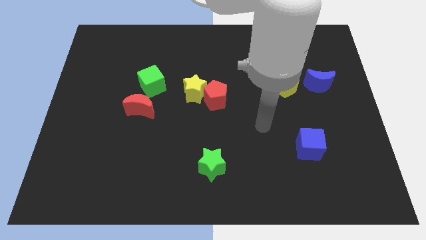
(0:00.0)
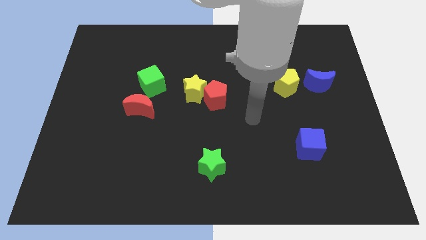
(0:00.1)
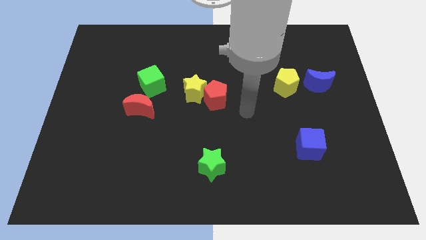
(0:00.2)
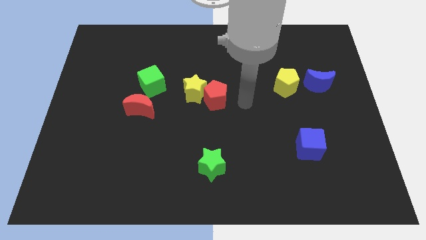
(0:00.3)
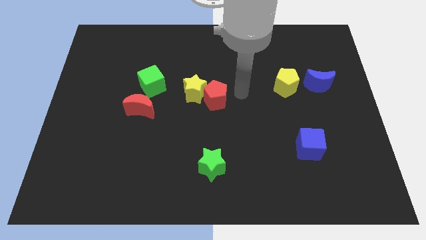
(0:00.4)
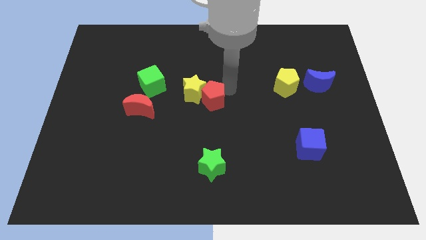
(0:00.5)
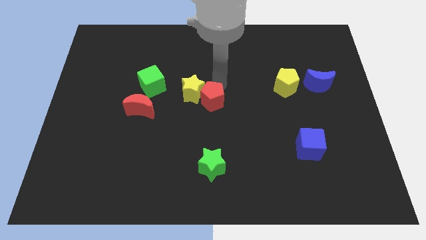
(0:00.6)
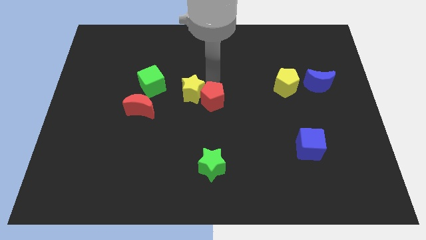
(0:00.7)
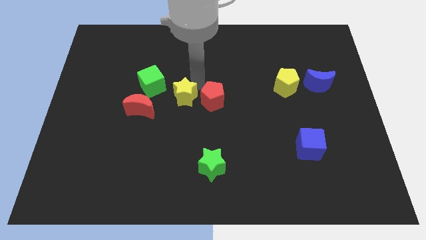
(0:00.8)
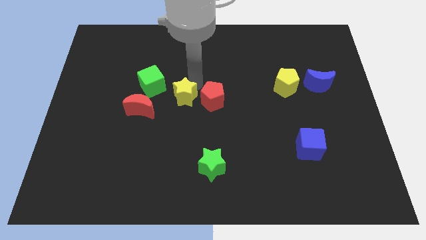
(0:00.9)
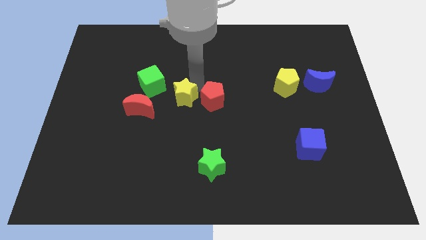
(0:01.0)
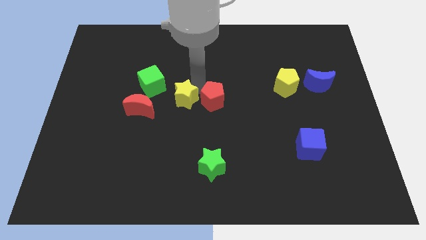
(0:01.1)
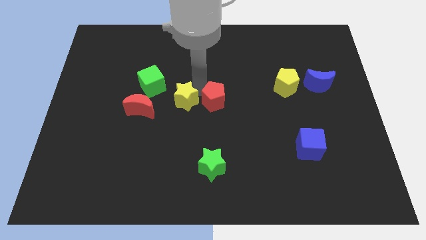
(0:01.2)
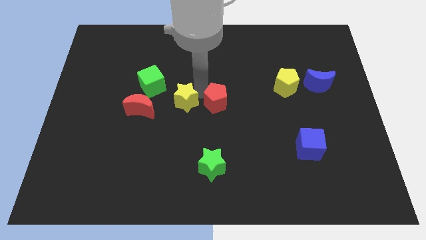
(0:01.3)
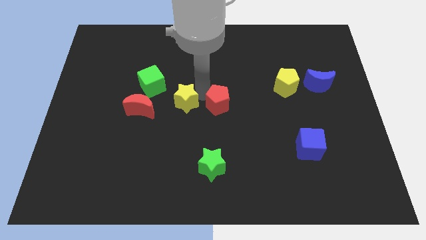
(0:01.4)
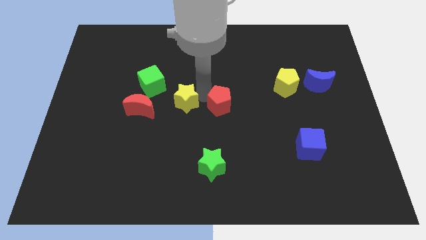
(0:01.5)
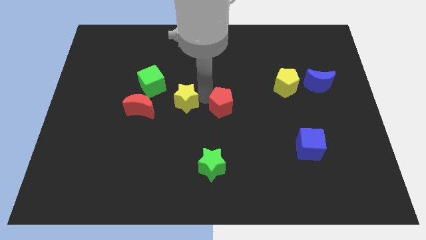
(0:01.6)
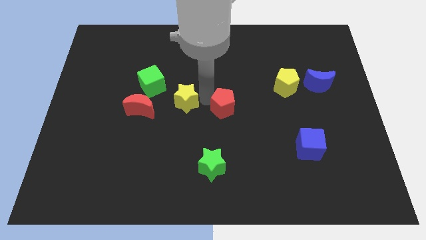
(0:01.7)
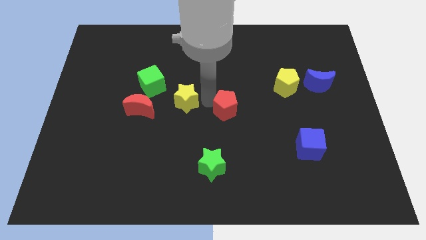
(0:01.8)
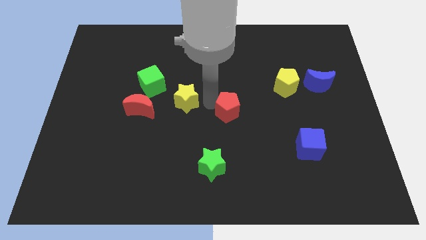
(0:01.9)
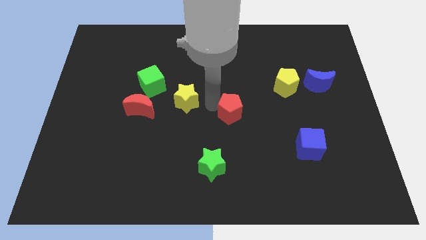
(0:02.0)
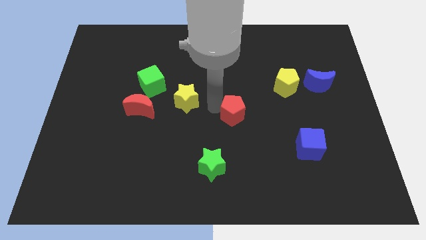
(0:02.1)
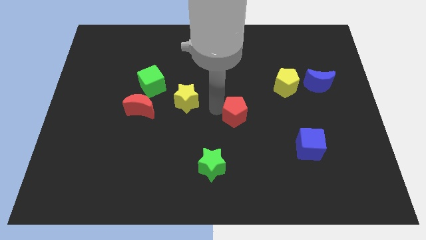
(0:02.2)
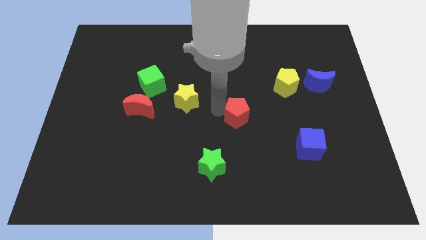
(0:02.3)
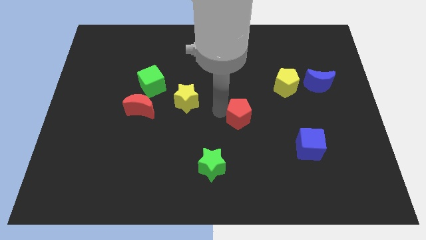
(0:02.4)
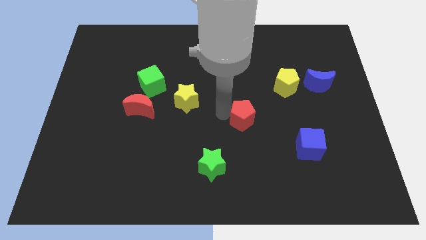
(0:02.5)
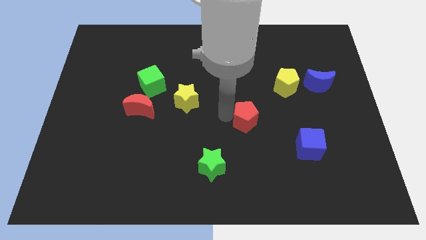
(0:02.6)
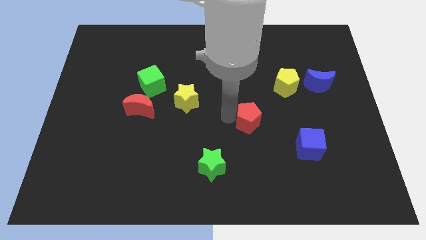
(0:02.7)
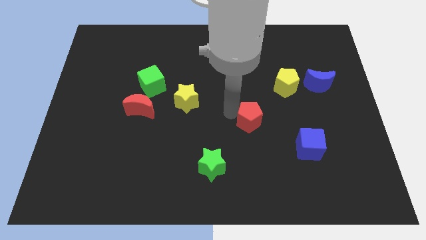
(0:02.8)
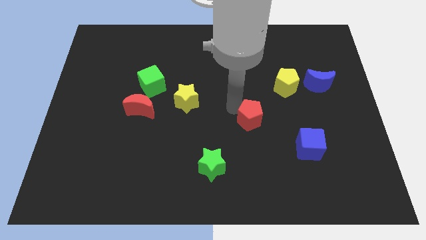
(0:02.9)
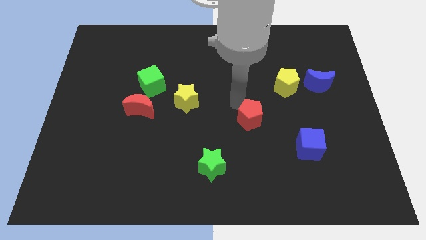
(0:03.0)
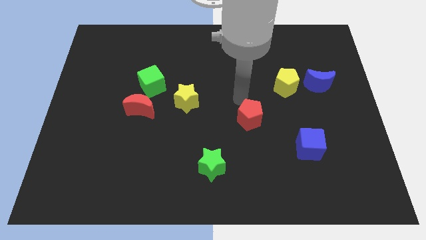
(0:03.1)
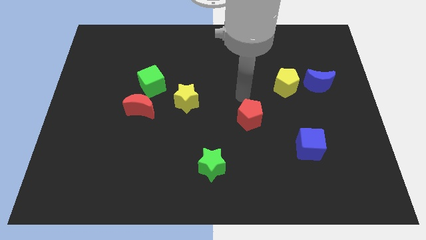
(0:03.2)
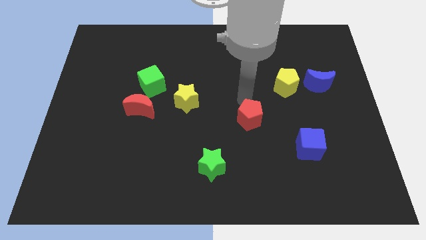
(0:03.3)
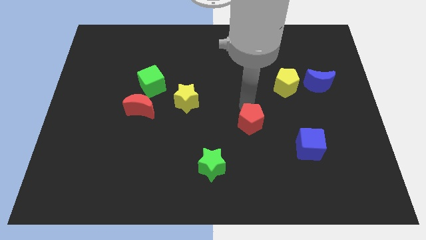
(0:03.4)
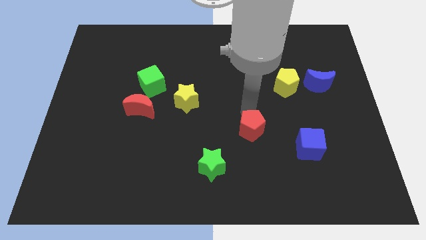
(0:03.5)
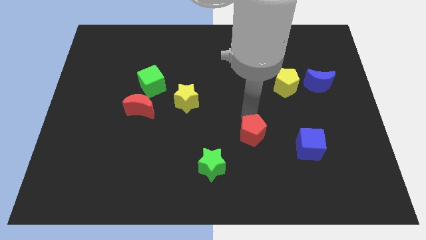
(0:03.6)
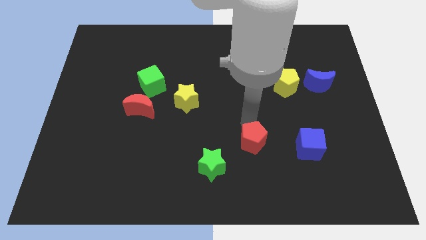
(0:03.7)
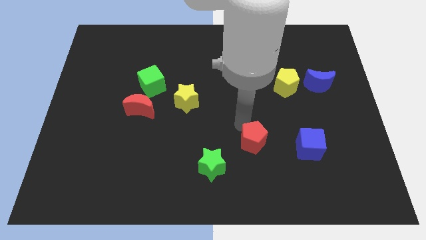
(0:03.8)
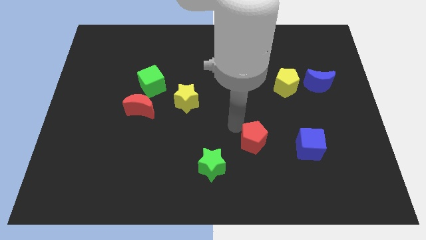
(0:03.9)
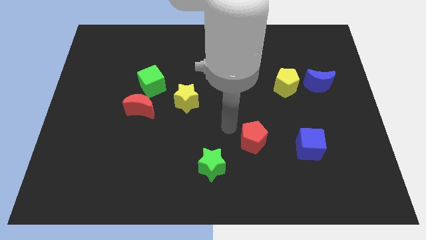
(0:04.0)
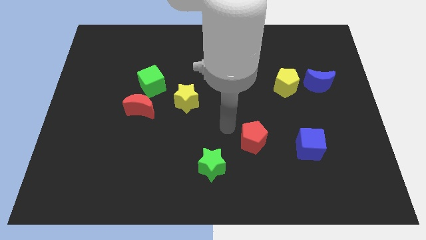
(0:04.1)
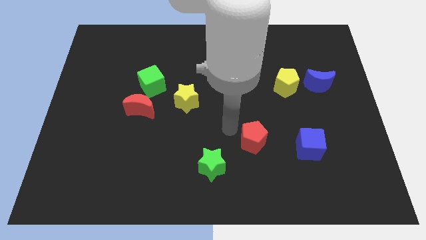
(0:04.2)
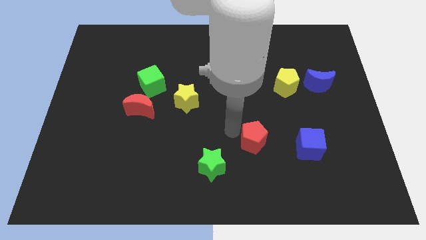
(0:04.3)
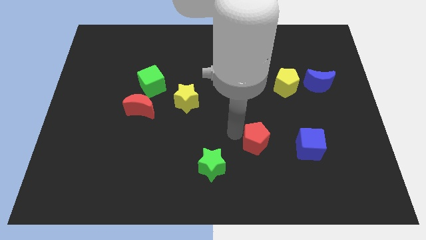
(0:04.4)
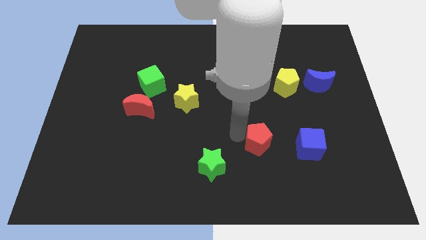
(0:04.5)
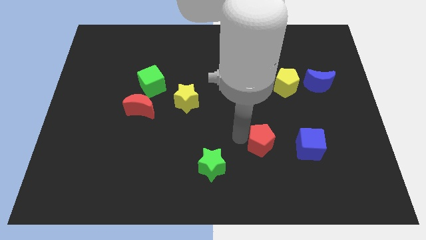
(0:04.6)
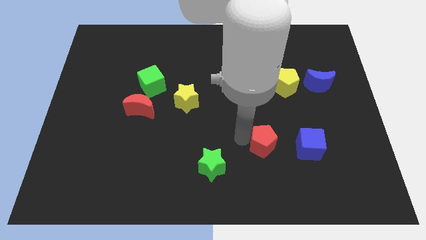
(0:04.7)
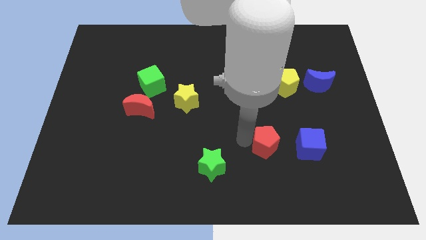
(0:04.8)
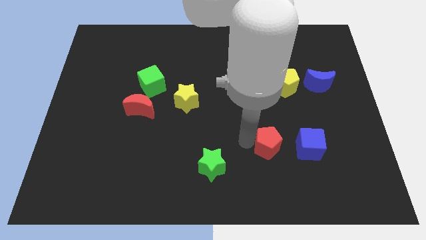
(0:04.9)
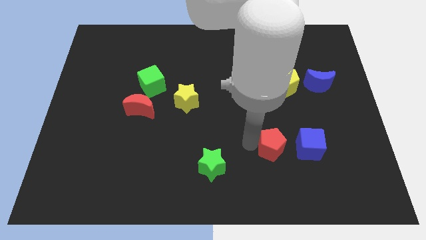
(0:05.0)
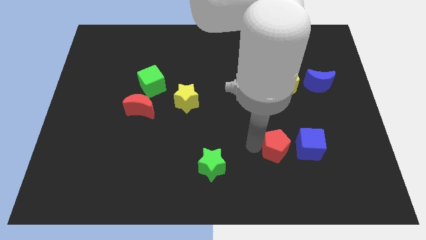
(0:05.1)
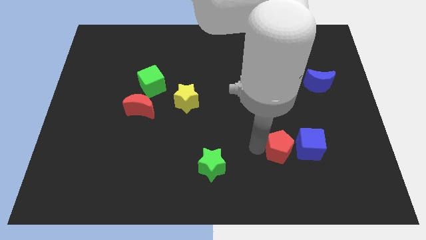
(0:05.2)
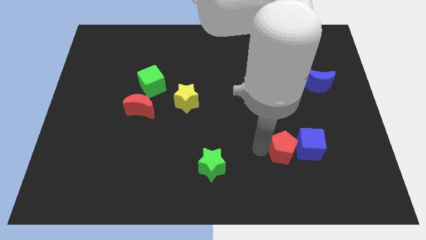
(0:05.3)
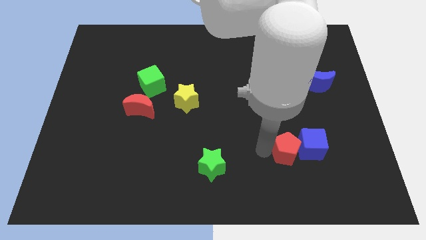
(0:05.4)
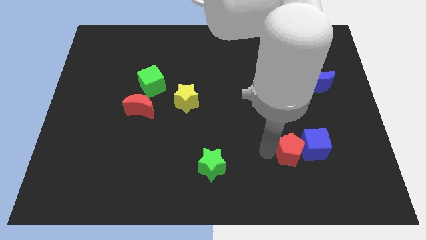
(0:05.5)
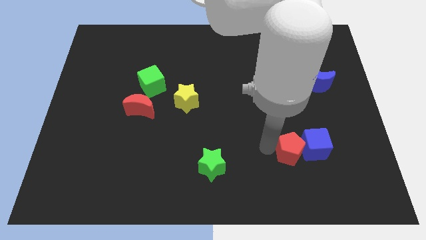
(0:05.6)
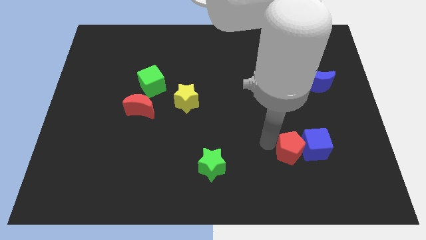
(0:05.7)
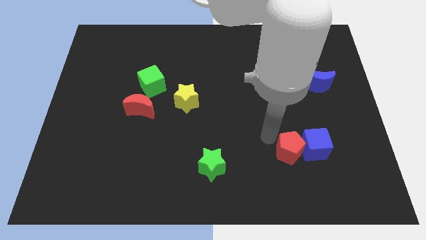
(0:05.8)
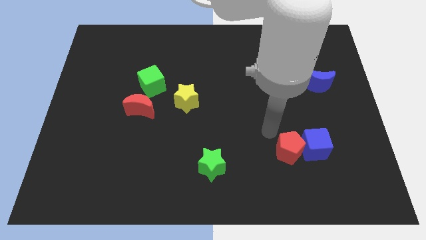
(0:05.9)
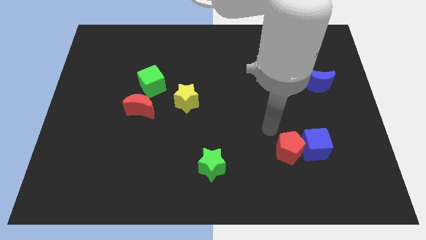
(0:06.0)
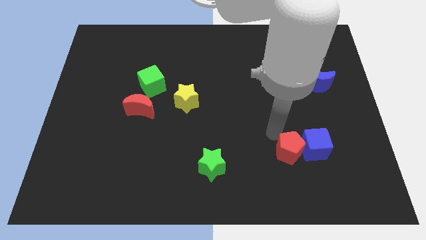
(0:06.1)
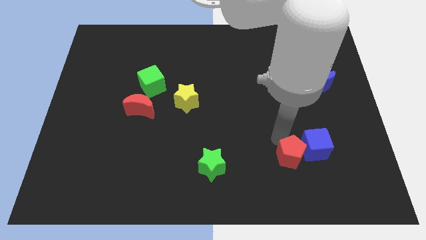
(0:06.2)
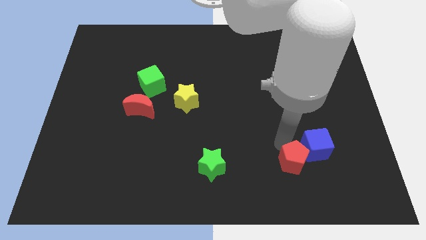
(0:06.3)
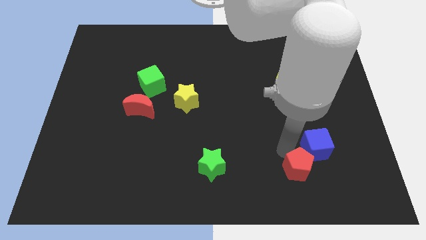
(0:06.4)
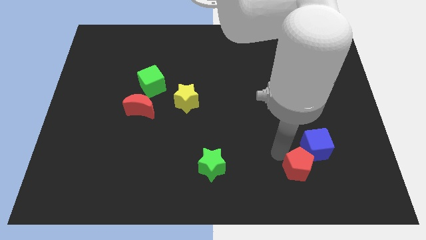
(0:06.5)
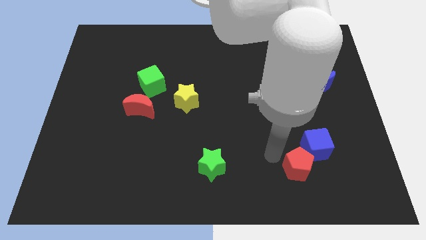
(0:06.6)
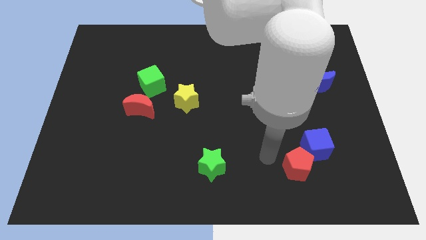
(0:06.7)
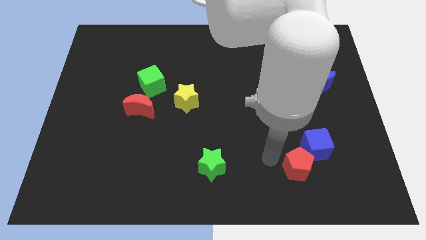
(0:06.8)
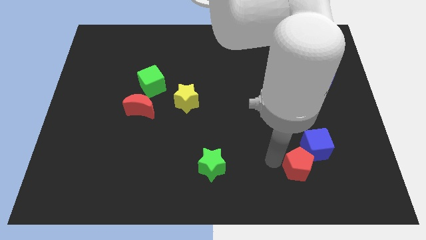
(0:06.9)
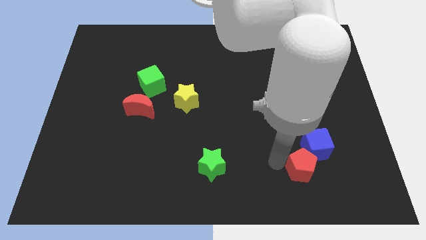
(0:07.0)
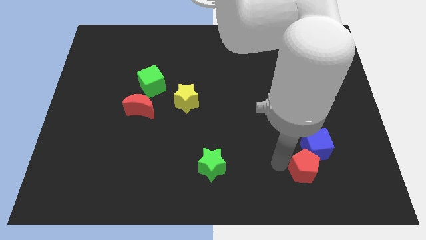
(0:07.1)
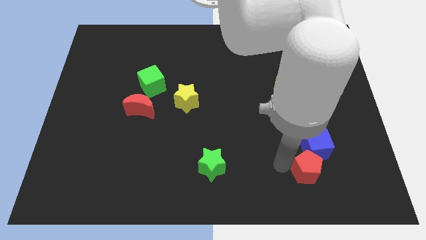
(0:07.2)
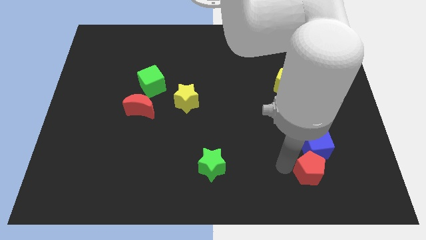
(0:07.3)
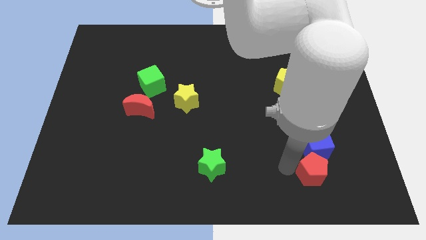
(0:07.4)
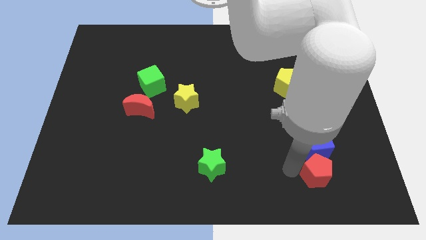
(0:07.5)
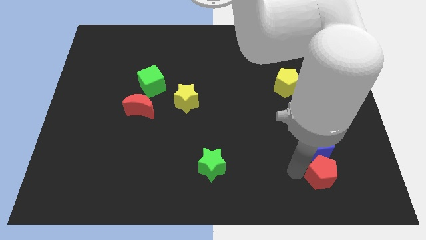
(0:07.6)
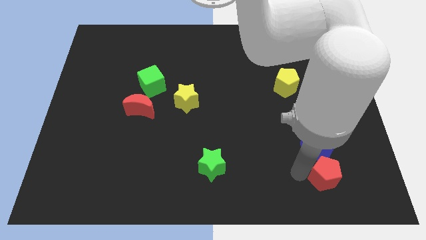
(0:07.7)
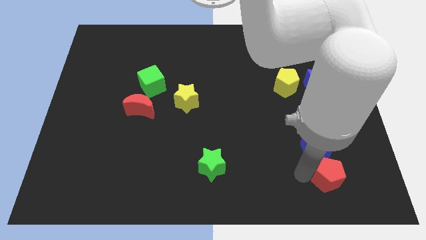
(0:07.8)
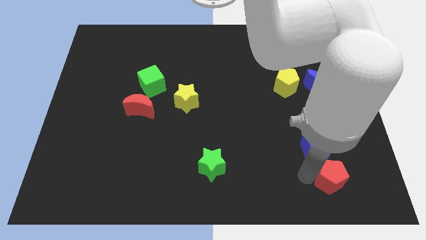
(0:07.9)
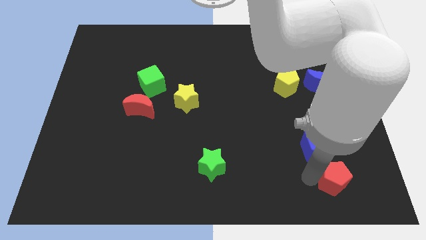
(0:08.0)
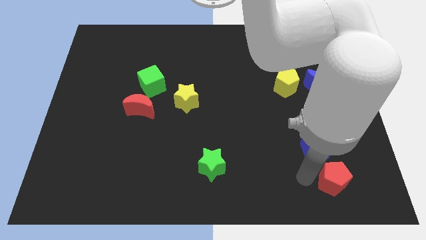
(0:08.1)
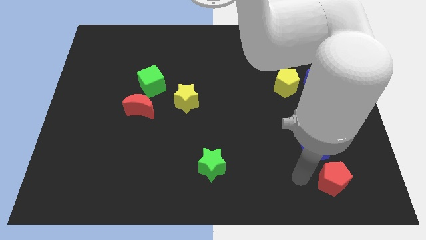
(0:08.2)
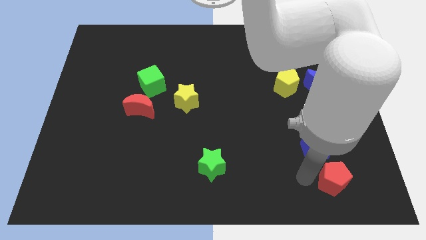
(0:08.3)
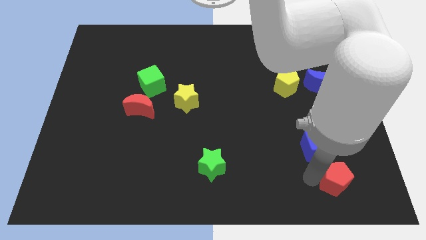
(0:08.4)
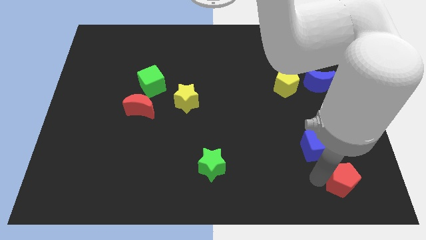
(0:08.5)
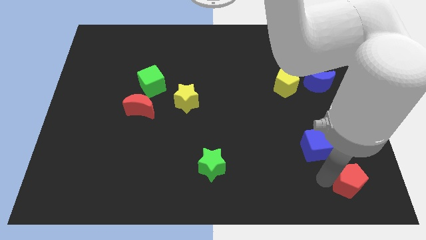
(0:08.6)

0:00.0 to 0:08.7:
slide the red pentagon to the bottom right corner
